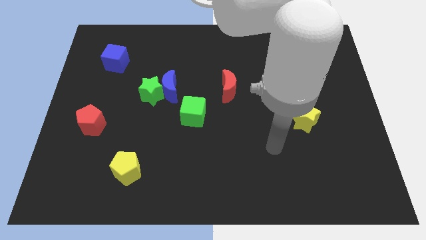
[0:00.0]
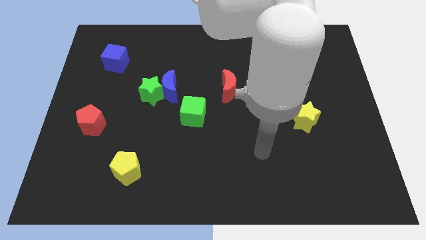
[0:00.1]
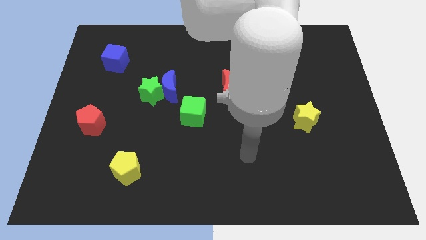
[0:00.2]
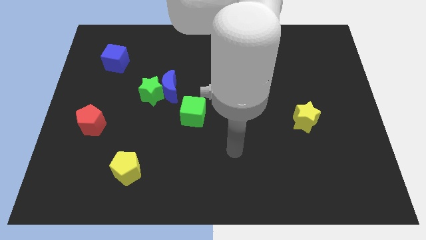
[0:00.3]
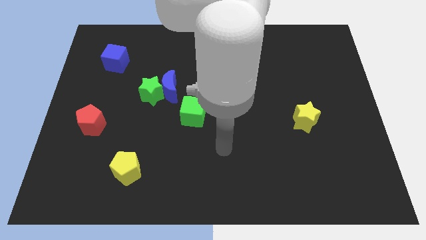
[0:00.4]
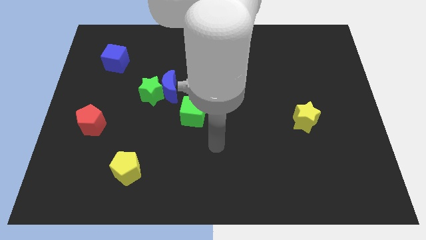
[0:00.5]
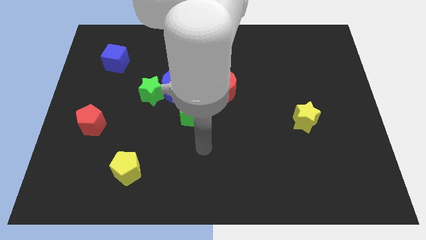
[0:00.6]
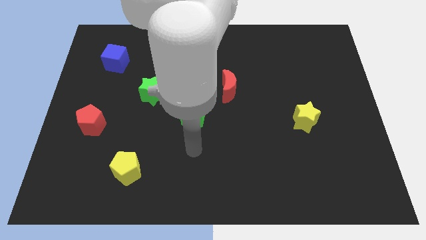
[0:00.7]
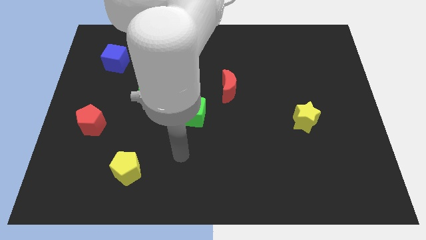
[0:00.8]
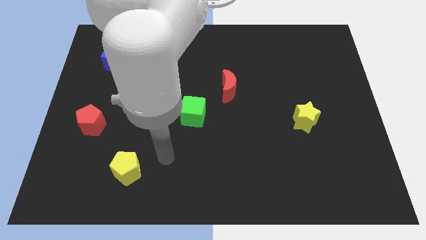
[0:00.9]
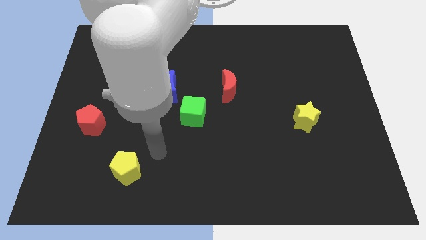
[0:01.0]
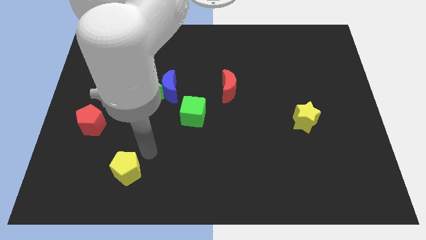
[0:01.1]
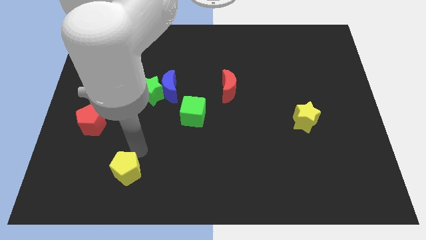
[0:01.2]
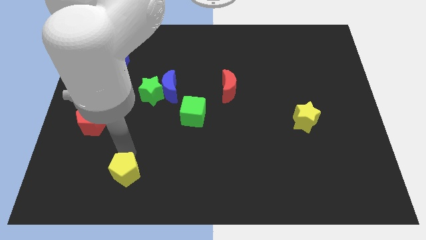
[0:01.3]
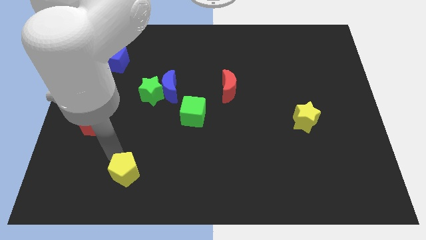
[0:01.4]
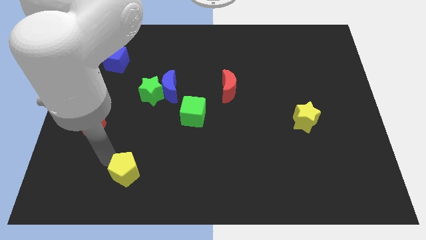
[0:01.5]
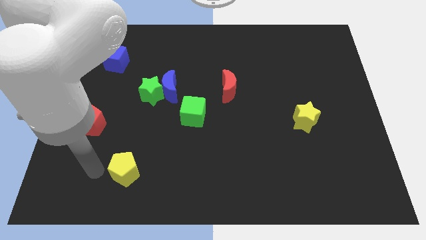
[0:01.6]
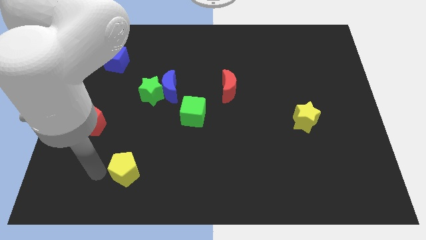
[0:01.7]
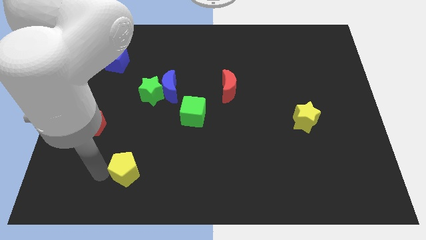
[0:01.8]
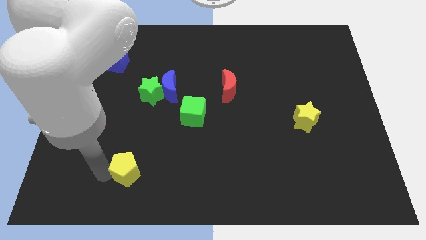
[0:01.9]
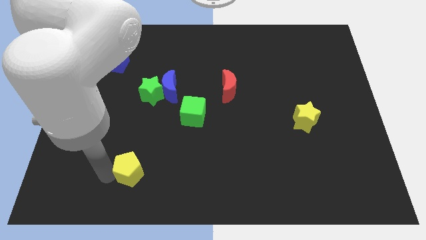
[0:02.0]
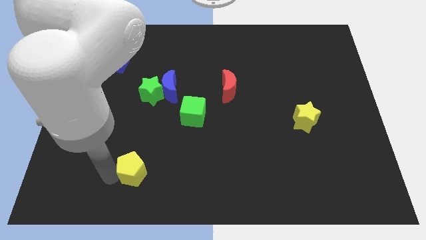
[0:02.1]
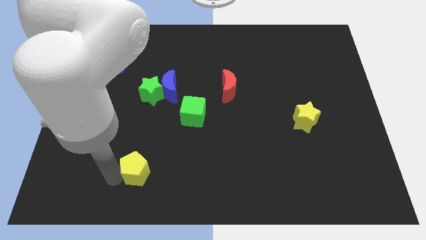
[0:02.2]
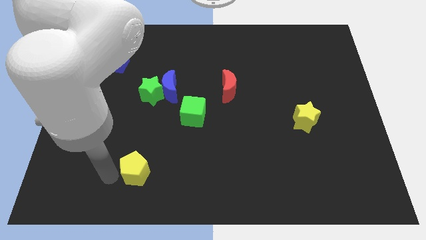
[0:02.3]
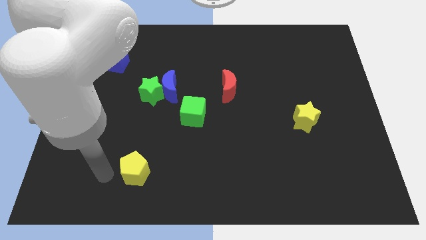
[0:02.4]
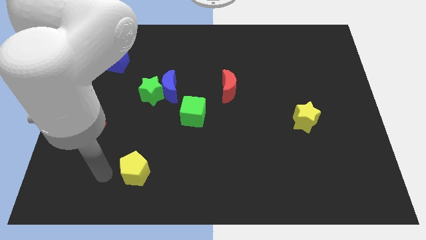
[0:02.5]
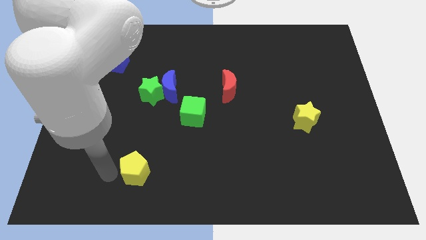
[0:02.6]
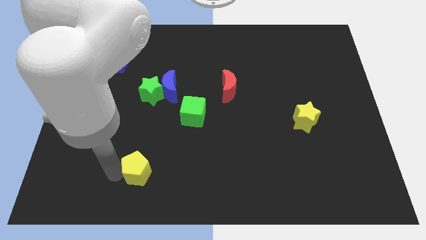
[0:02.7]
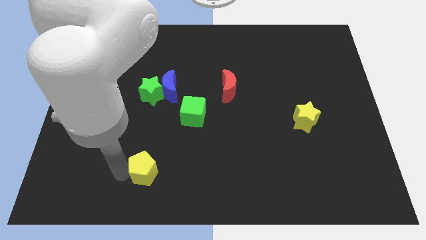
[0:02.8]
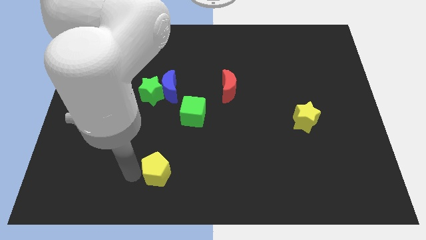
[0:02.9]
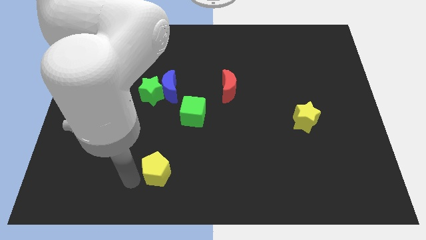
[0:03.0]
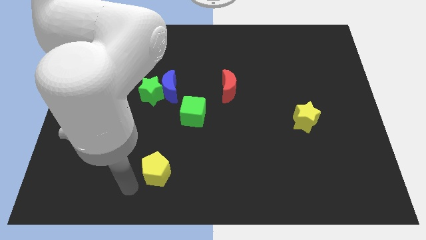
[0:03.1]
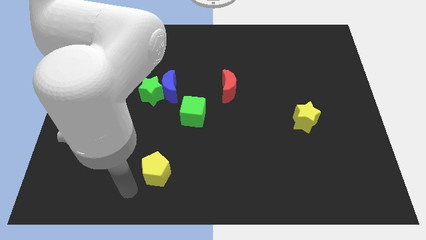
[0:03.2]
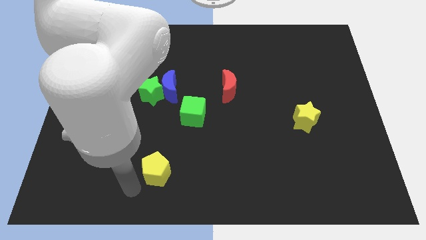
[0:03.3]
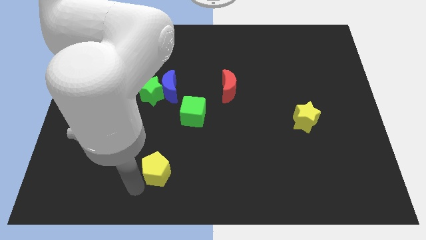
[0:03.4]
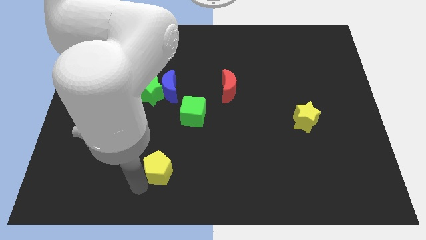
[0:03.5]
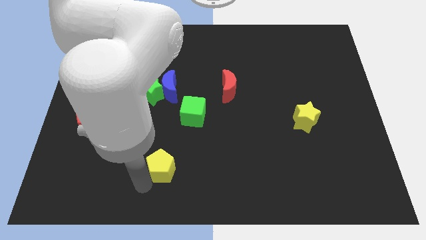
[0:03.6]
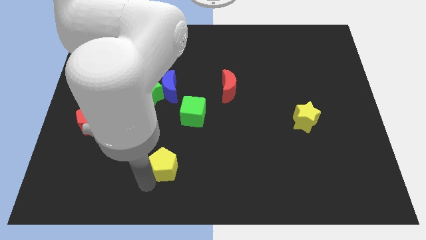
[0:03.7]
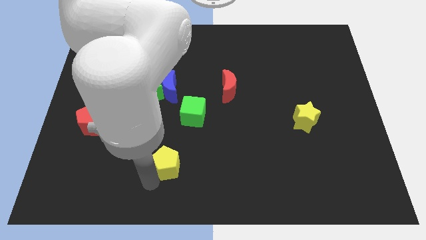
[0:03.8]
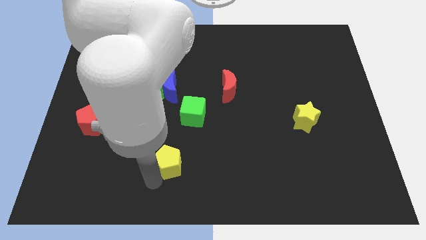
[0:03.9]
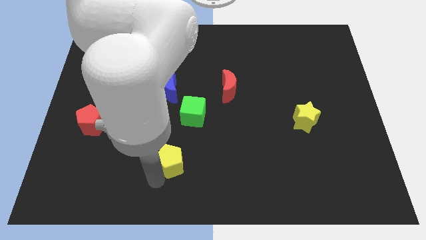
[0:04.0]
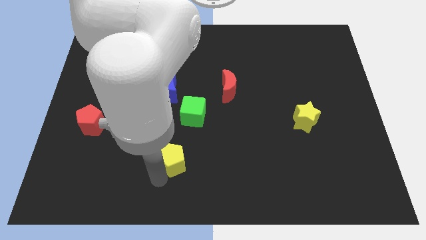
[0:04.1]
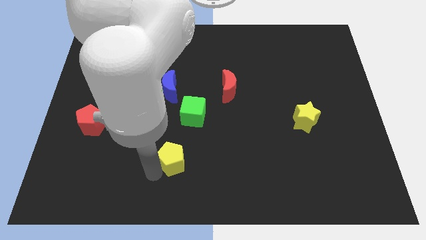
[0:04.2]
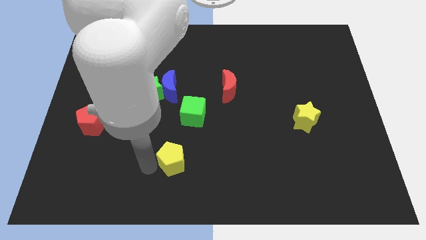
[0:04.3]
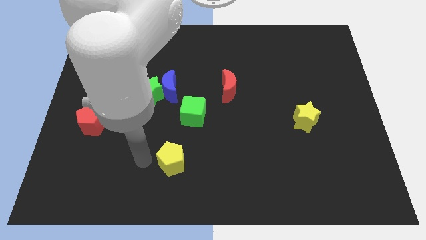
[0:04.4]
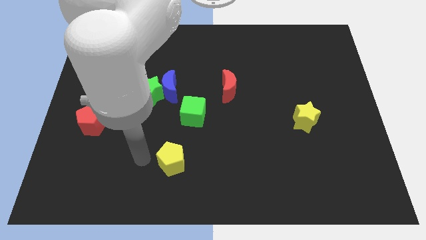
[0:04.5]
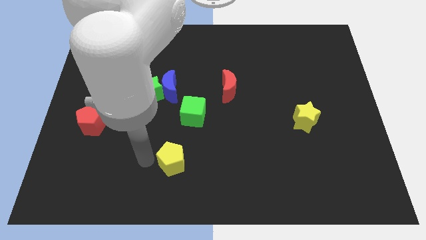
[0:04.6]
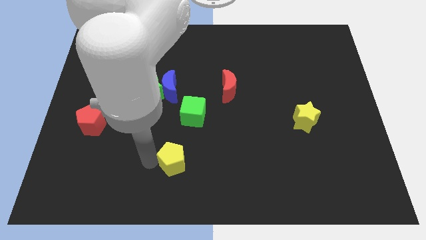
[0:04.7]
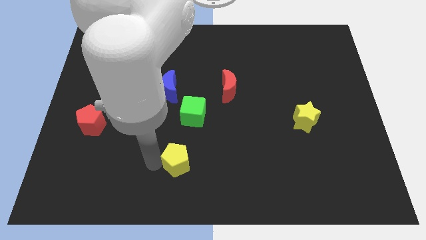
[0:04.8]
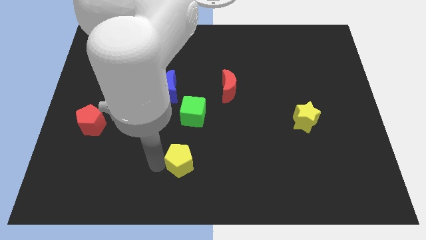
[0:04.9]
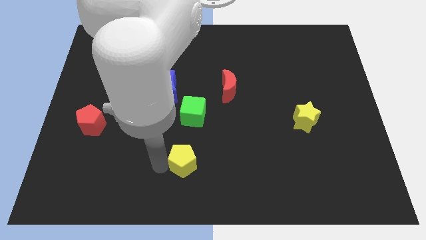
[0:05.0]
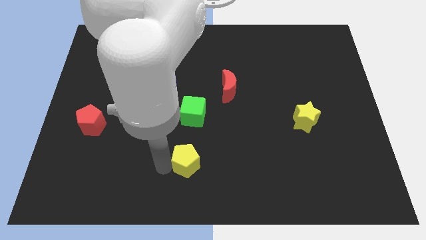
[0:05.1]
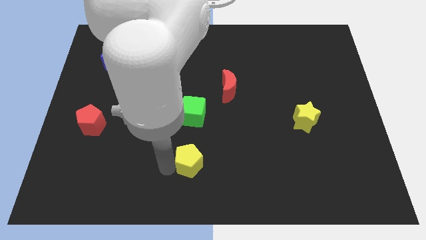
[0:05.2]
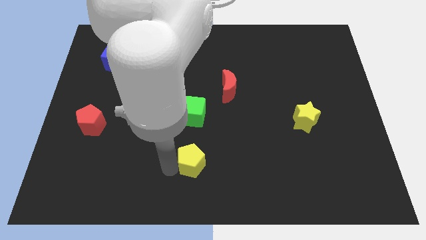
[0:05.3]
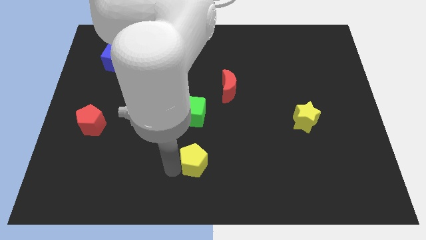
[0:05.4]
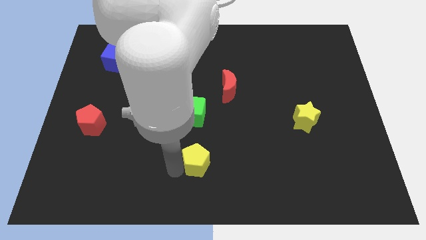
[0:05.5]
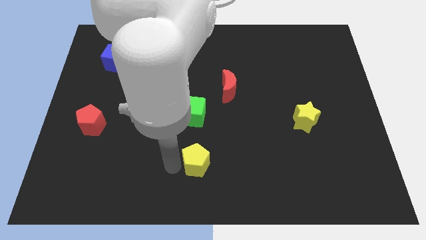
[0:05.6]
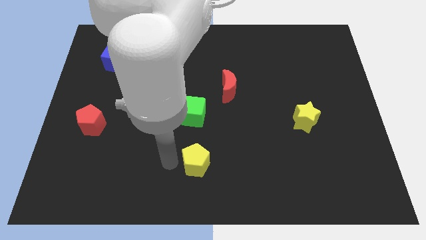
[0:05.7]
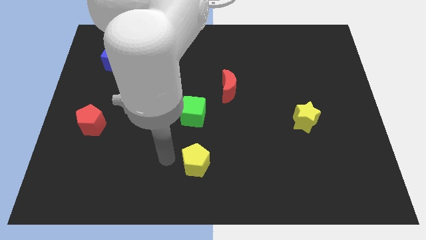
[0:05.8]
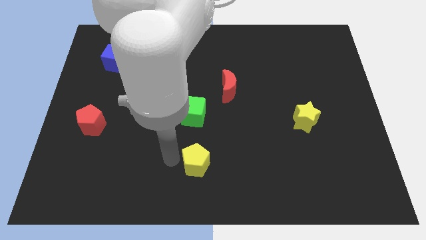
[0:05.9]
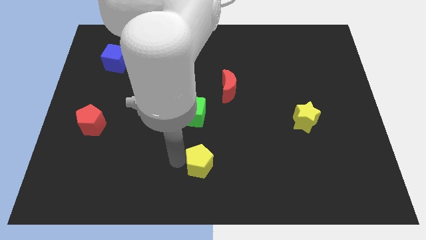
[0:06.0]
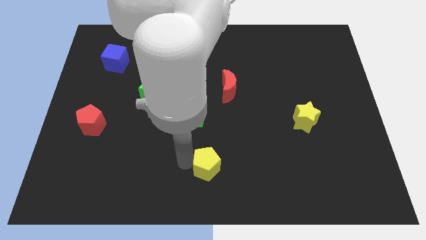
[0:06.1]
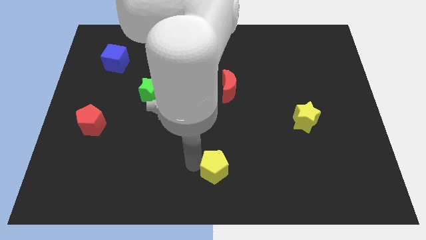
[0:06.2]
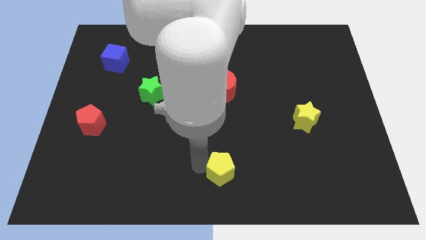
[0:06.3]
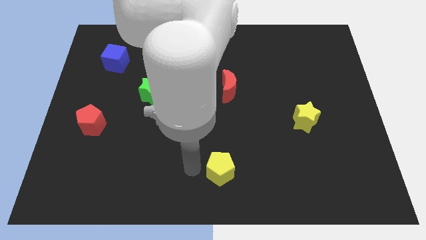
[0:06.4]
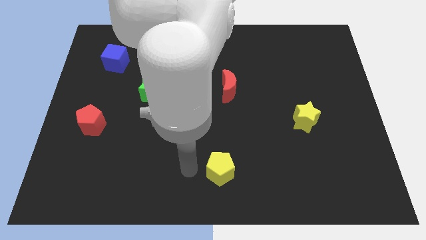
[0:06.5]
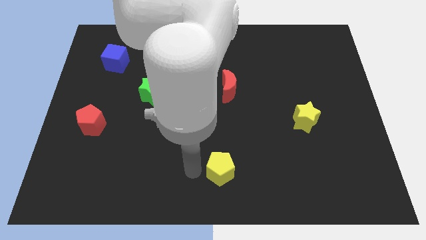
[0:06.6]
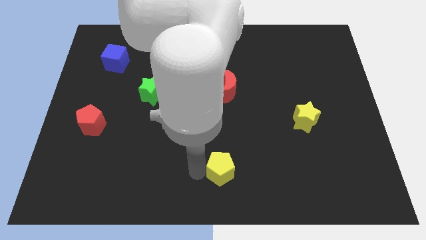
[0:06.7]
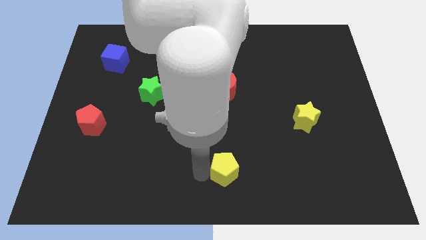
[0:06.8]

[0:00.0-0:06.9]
slide the yellow pentagon right

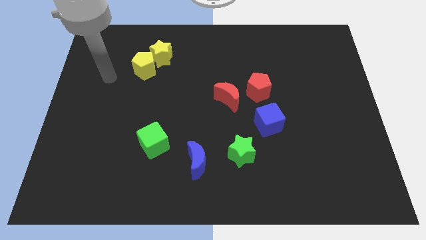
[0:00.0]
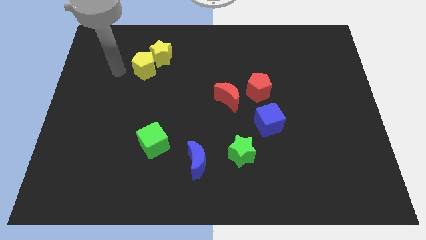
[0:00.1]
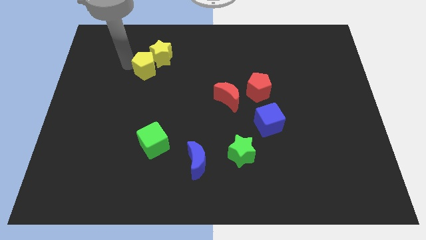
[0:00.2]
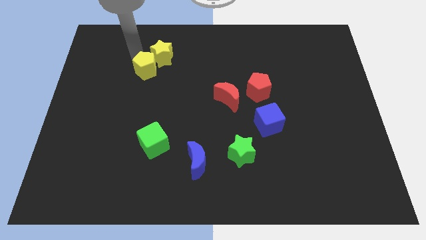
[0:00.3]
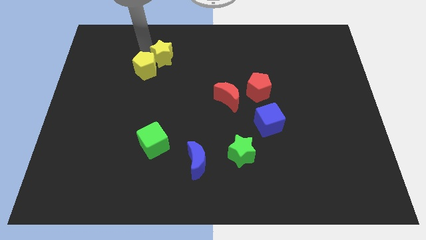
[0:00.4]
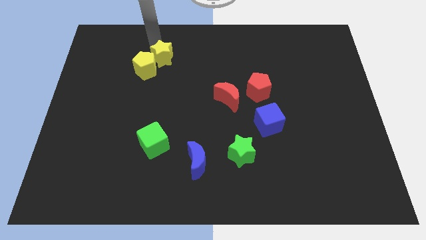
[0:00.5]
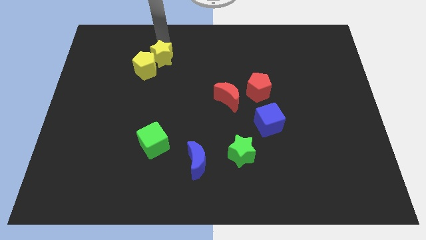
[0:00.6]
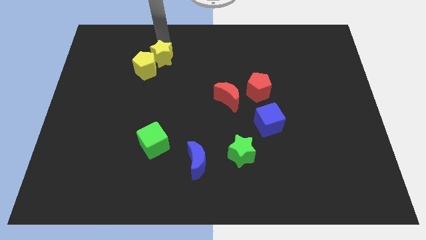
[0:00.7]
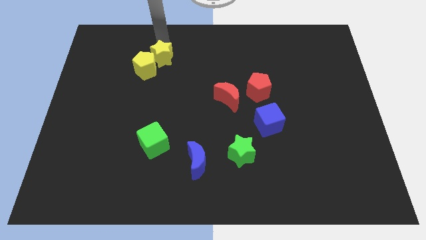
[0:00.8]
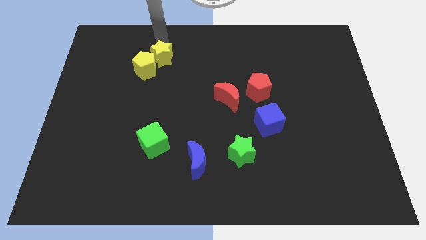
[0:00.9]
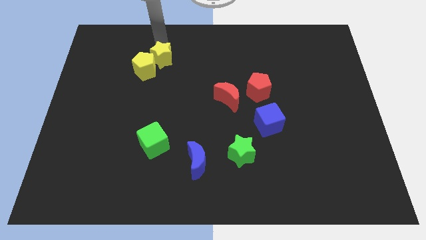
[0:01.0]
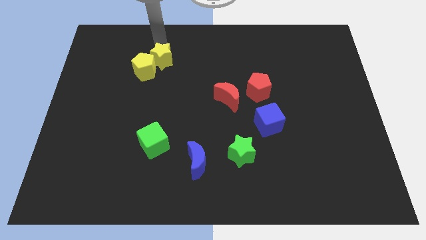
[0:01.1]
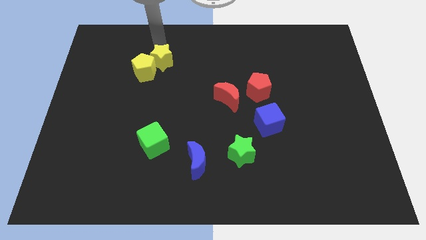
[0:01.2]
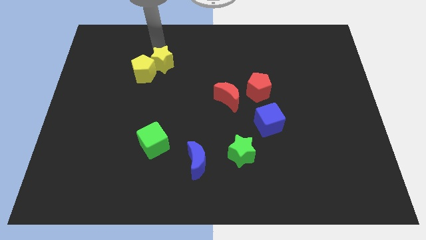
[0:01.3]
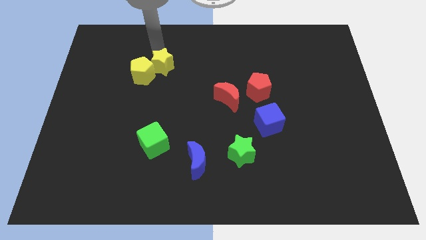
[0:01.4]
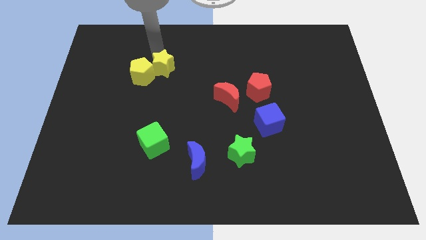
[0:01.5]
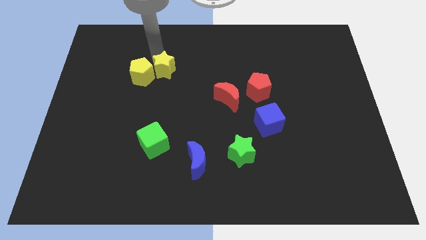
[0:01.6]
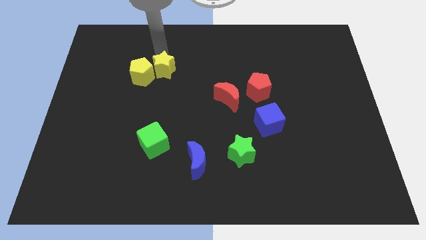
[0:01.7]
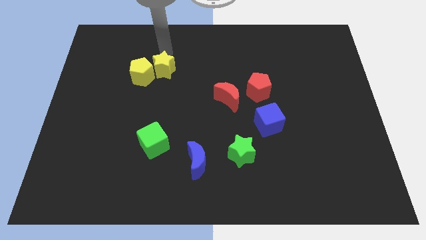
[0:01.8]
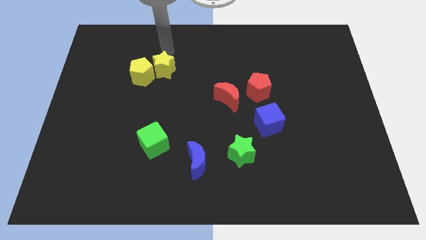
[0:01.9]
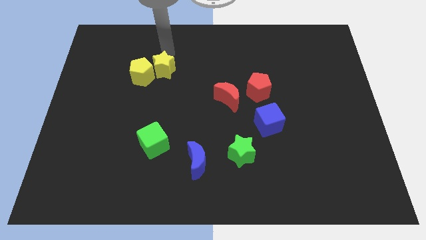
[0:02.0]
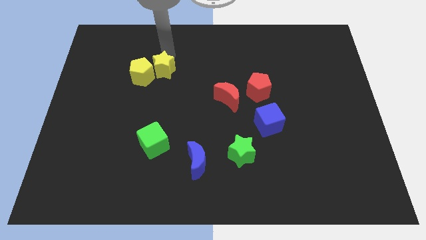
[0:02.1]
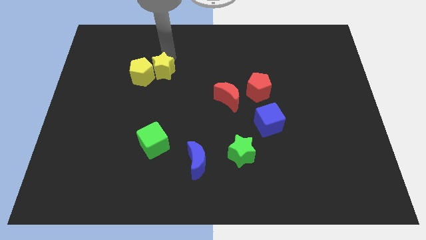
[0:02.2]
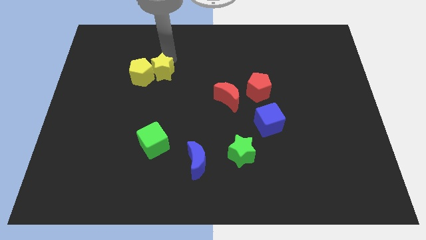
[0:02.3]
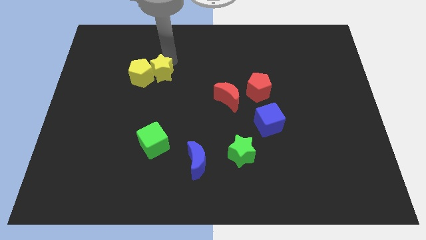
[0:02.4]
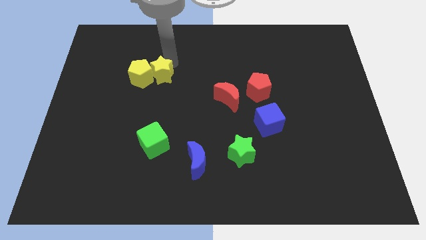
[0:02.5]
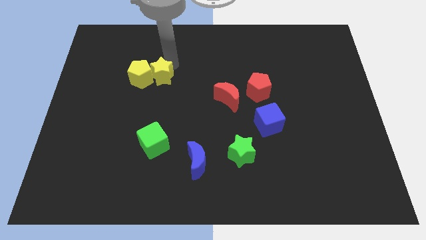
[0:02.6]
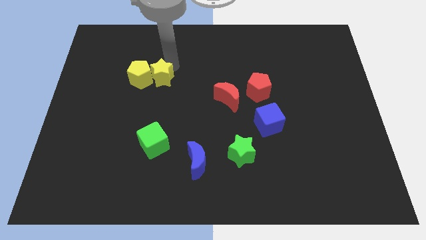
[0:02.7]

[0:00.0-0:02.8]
slightly push the yellow star down
